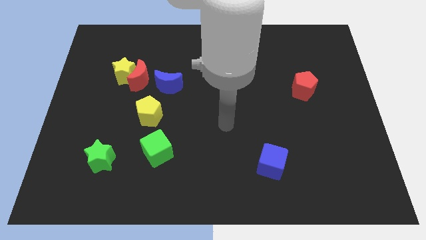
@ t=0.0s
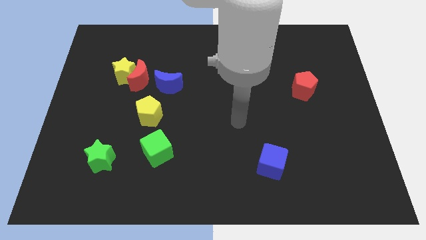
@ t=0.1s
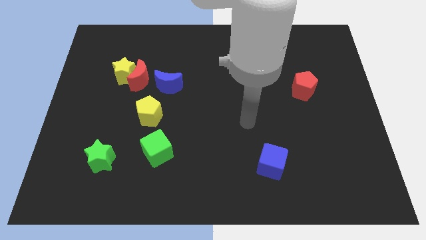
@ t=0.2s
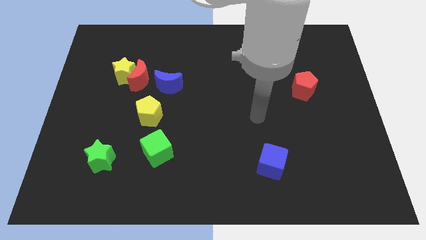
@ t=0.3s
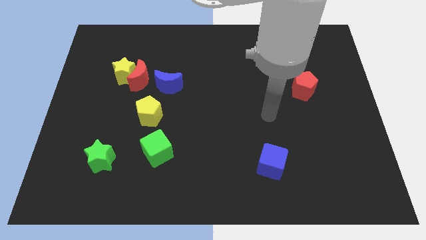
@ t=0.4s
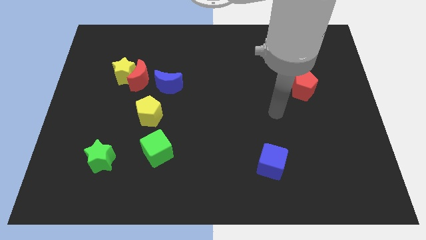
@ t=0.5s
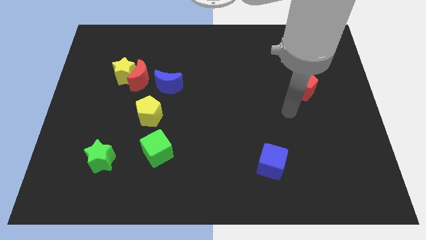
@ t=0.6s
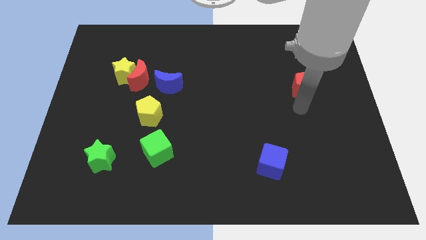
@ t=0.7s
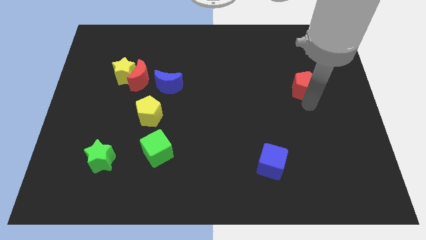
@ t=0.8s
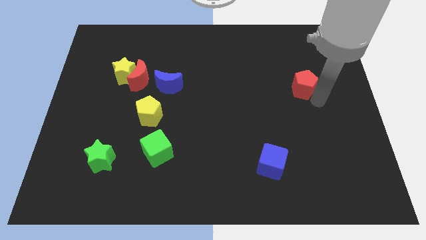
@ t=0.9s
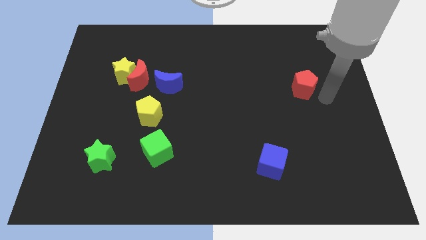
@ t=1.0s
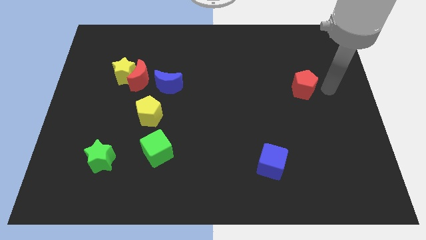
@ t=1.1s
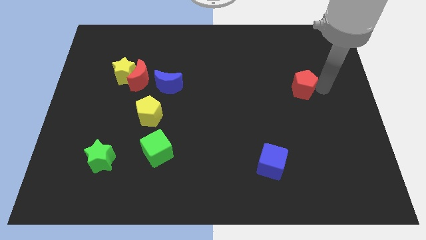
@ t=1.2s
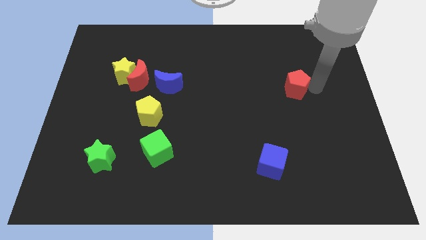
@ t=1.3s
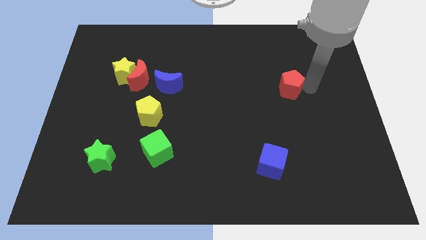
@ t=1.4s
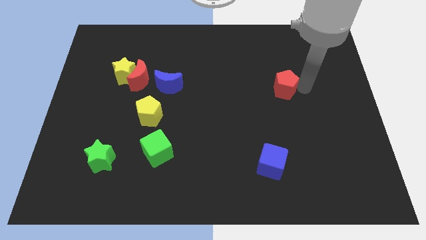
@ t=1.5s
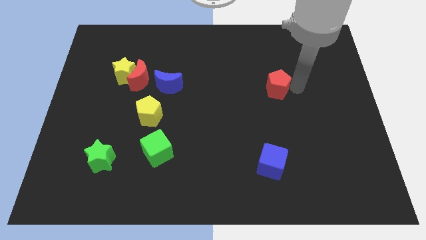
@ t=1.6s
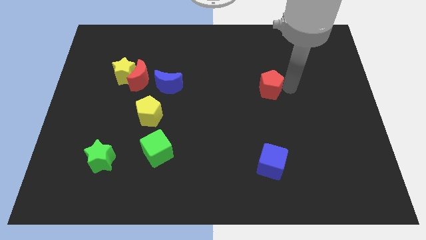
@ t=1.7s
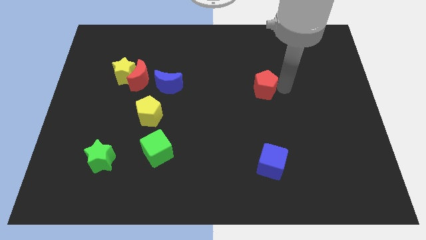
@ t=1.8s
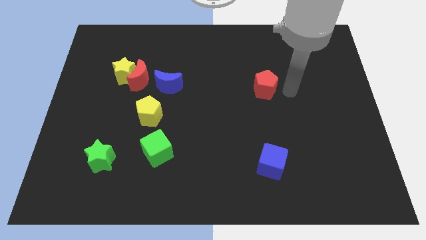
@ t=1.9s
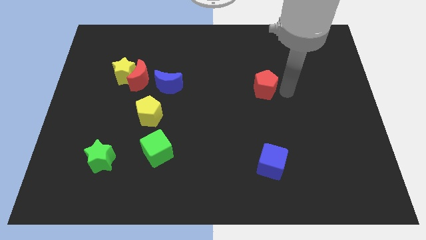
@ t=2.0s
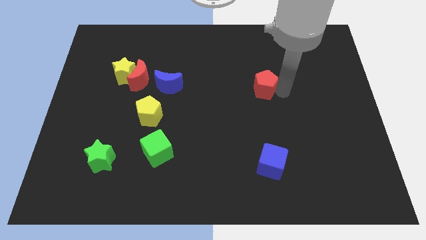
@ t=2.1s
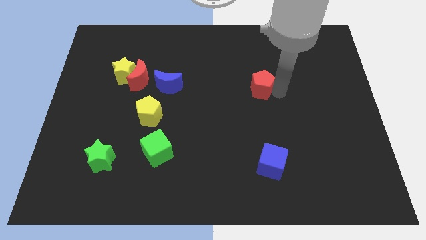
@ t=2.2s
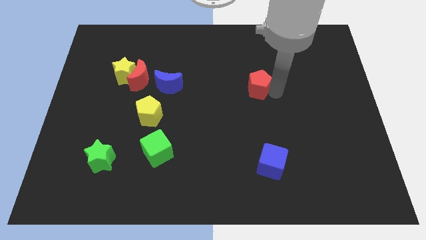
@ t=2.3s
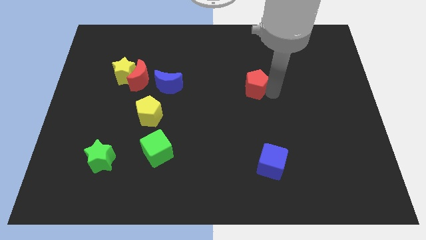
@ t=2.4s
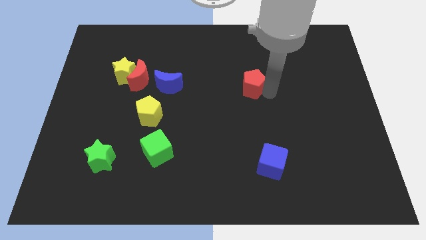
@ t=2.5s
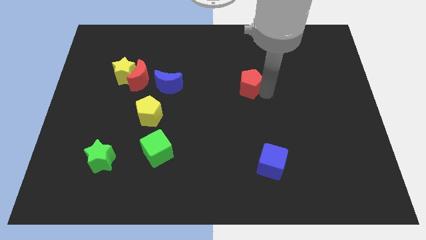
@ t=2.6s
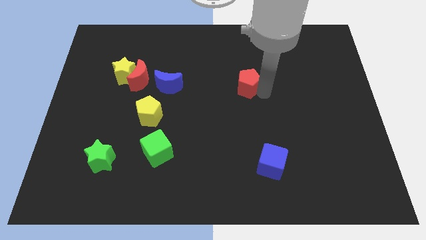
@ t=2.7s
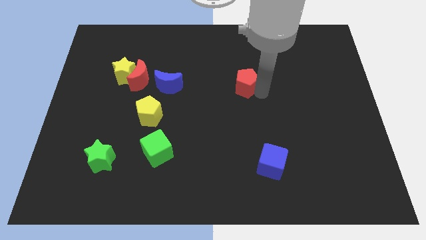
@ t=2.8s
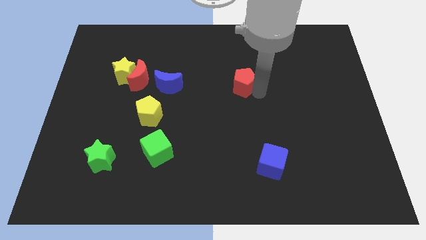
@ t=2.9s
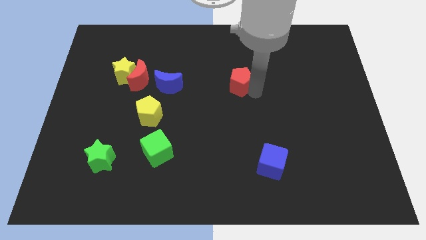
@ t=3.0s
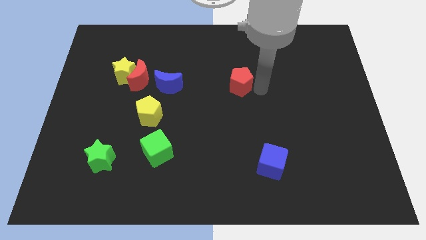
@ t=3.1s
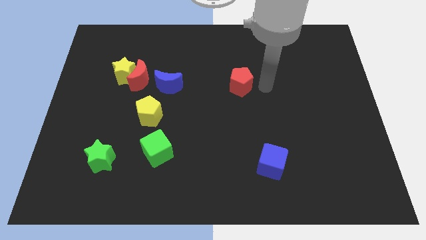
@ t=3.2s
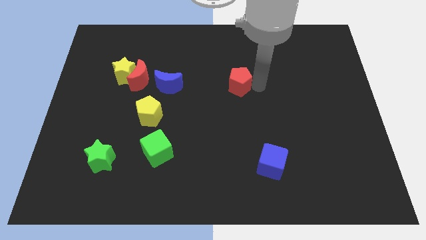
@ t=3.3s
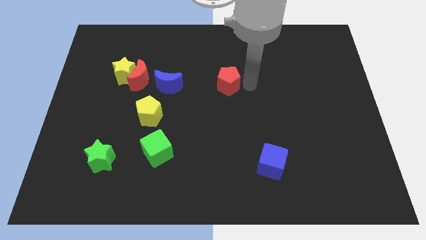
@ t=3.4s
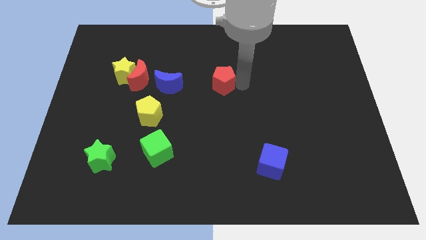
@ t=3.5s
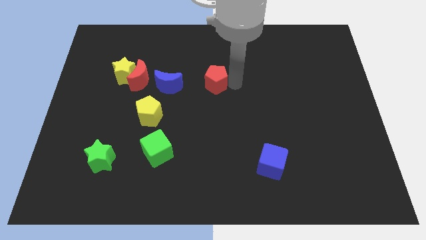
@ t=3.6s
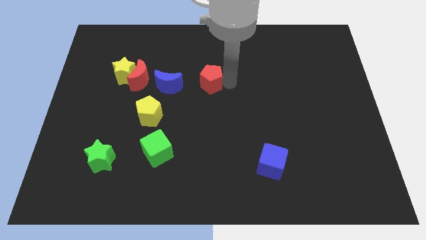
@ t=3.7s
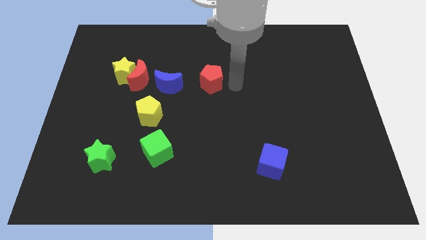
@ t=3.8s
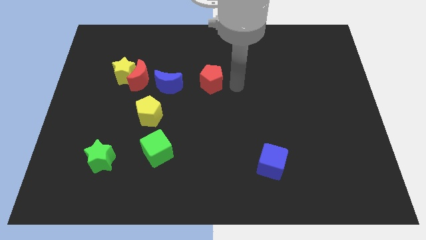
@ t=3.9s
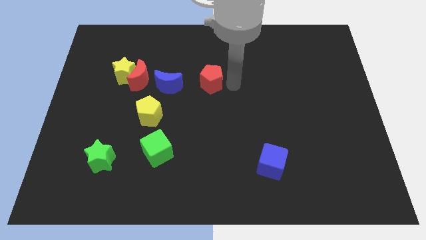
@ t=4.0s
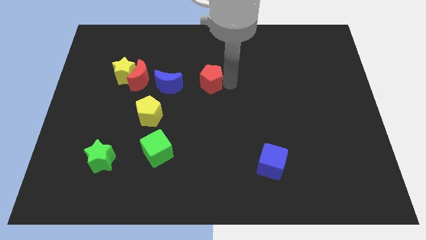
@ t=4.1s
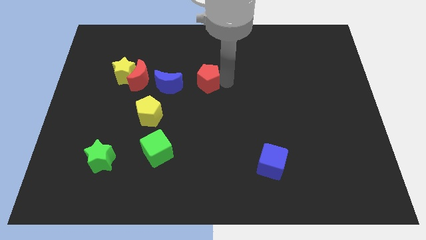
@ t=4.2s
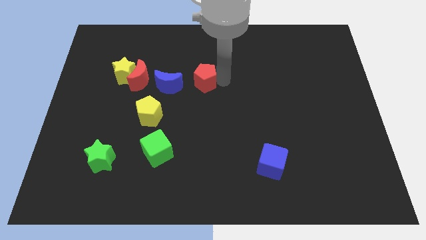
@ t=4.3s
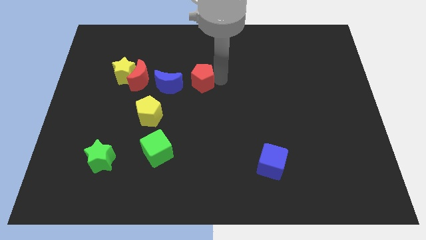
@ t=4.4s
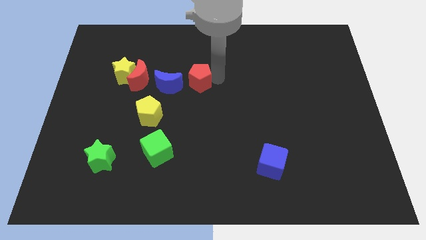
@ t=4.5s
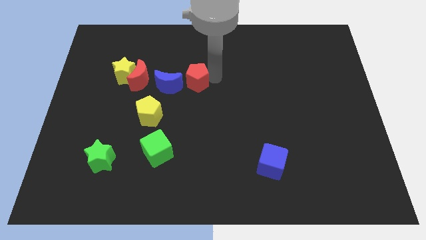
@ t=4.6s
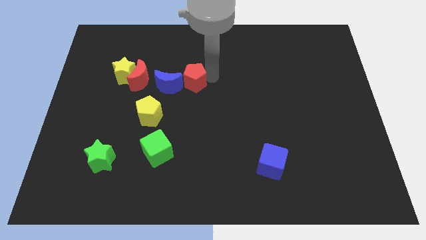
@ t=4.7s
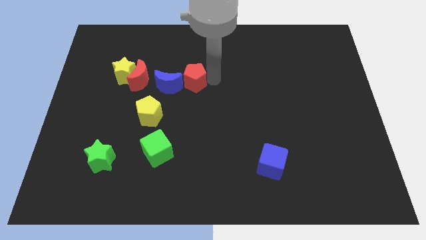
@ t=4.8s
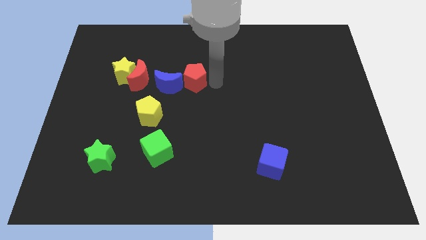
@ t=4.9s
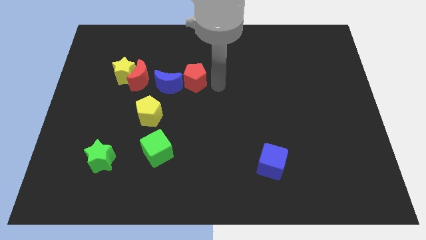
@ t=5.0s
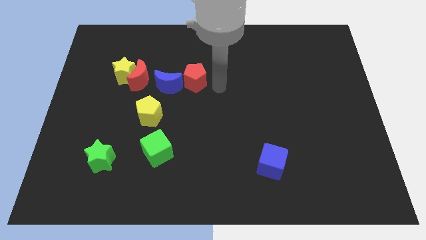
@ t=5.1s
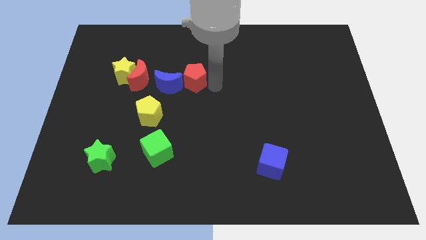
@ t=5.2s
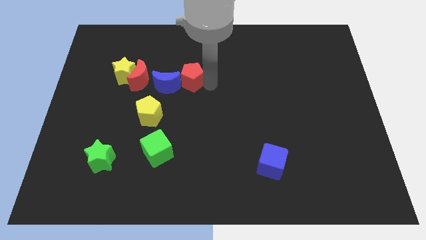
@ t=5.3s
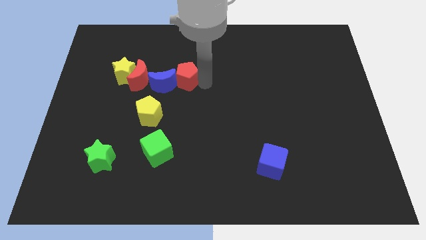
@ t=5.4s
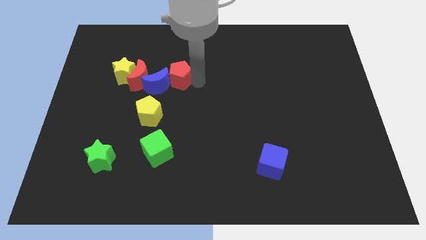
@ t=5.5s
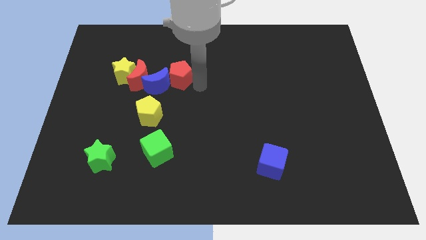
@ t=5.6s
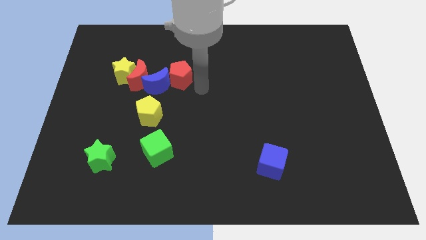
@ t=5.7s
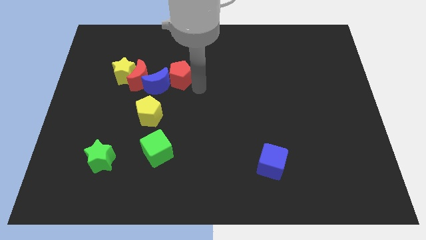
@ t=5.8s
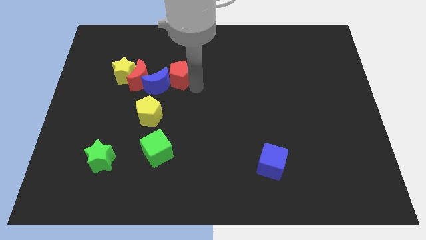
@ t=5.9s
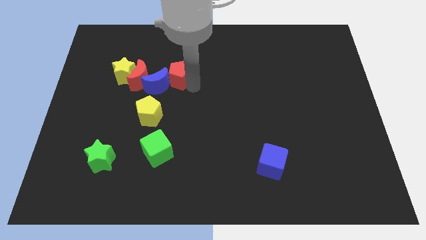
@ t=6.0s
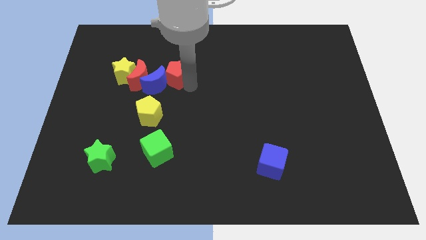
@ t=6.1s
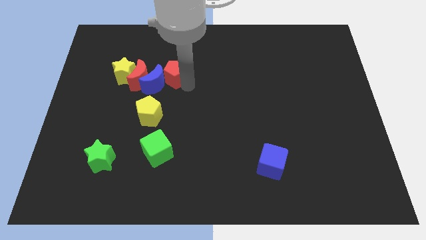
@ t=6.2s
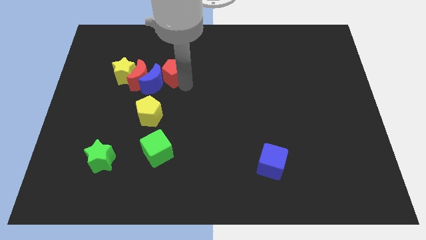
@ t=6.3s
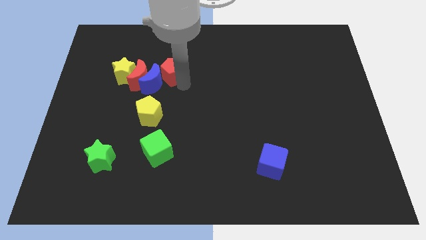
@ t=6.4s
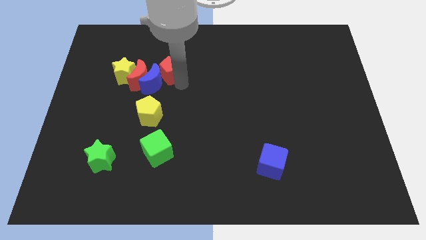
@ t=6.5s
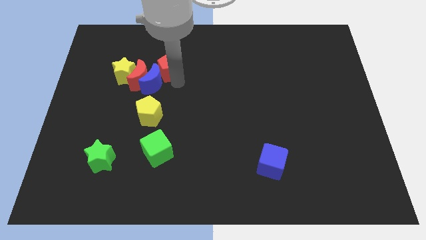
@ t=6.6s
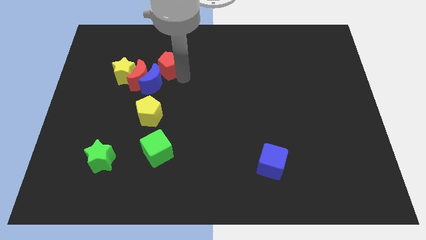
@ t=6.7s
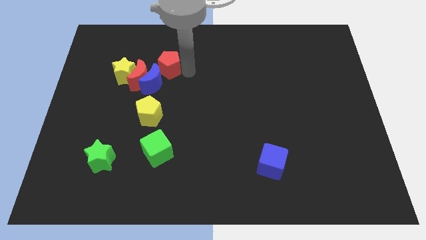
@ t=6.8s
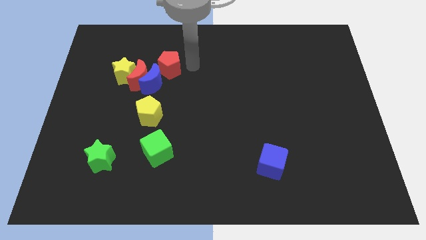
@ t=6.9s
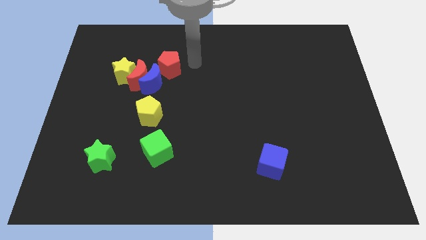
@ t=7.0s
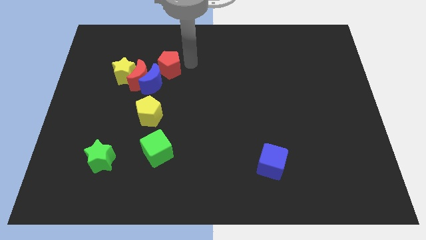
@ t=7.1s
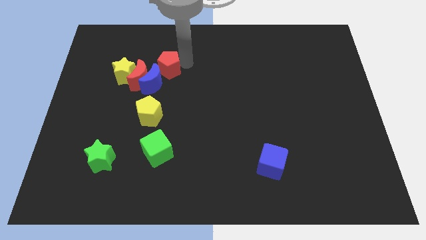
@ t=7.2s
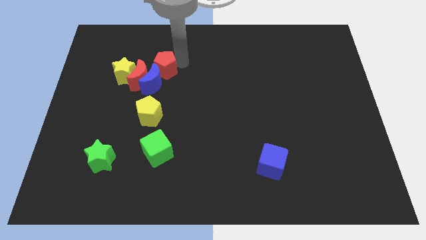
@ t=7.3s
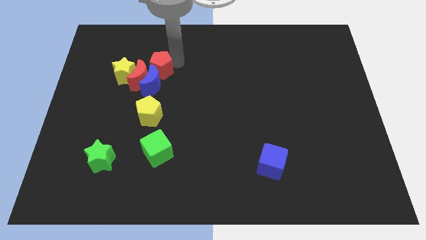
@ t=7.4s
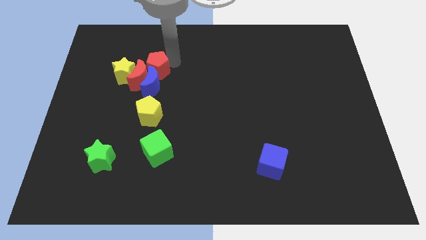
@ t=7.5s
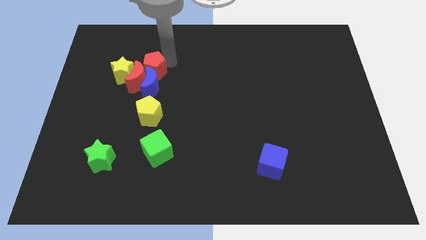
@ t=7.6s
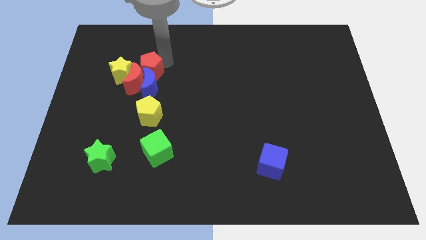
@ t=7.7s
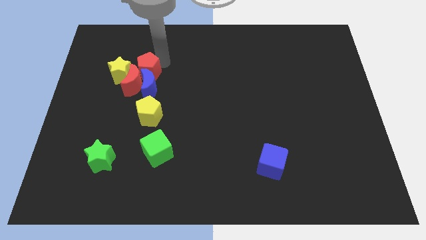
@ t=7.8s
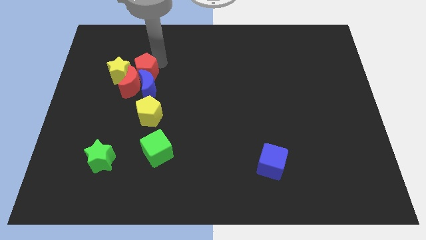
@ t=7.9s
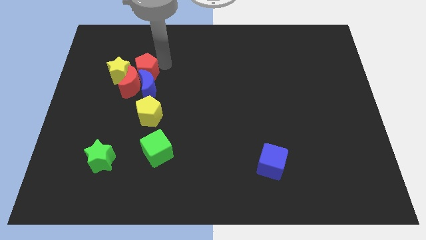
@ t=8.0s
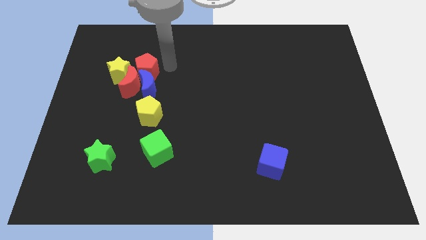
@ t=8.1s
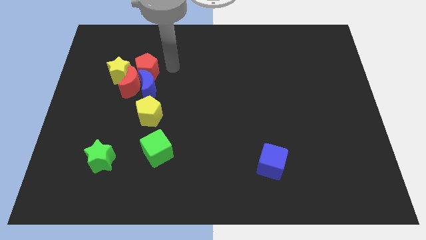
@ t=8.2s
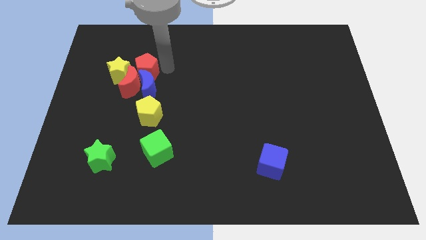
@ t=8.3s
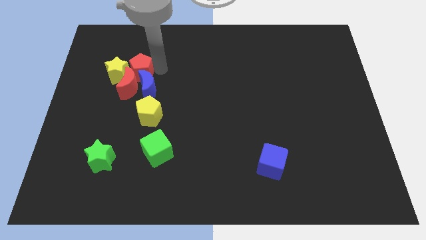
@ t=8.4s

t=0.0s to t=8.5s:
slide the red pentagon next to the yellow star
